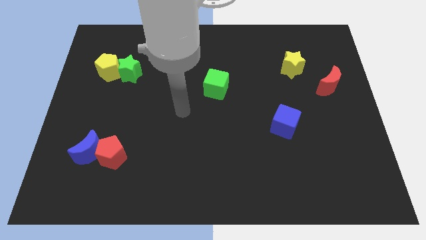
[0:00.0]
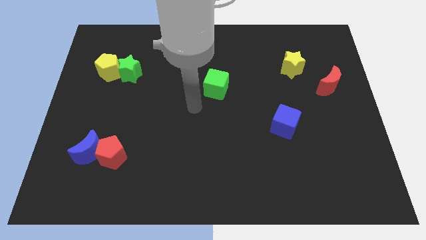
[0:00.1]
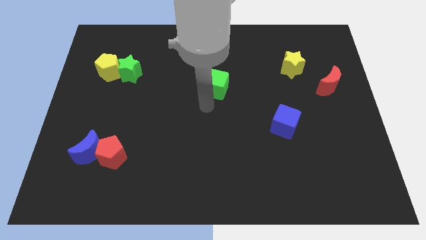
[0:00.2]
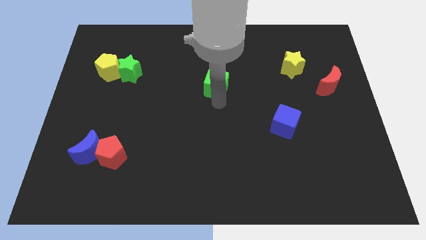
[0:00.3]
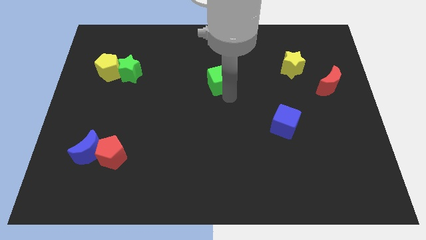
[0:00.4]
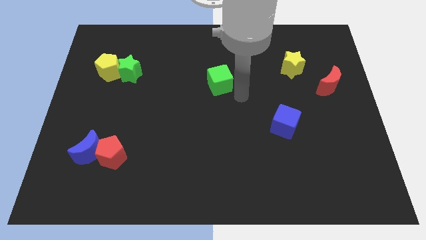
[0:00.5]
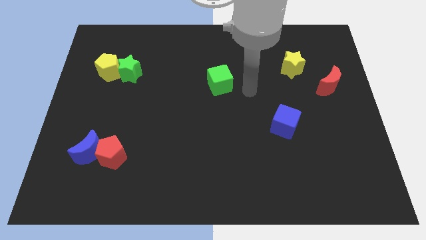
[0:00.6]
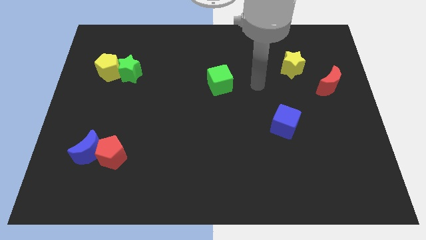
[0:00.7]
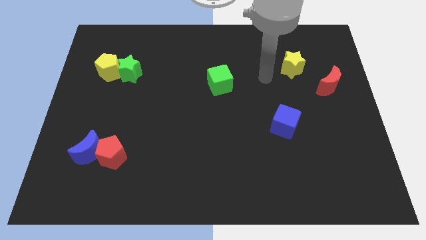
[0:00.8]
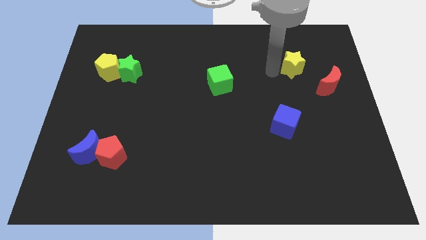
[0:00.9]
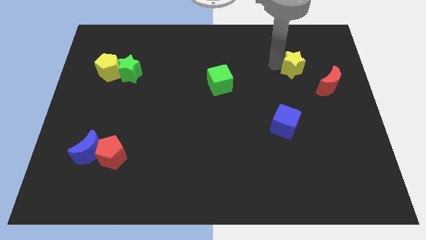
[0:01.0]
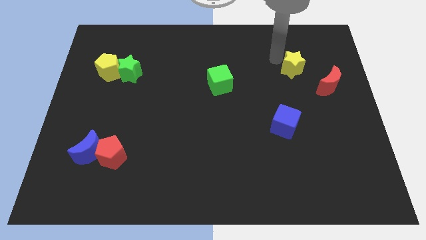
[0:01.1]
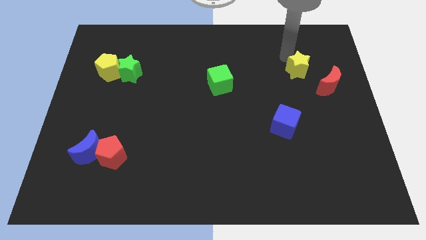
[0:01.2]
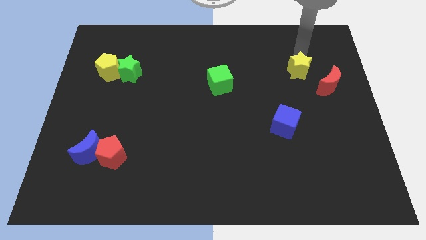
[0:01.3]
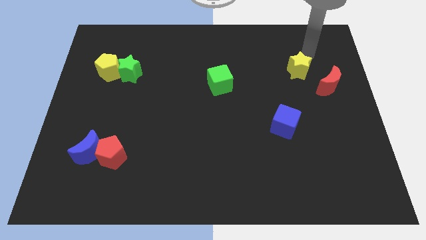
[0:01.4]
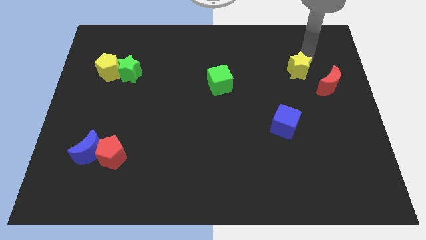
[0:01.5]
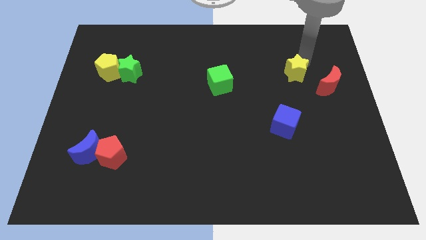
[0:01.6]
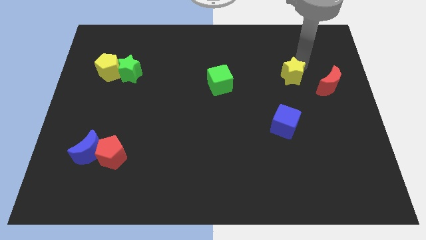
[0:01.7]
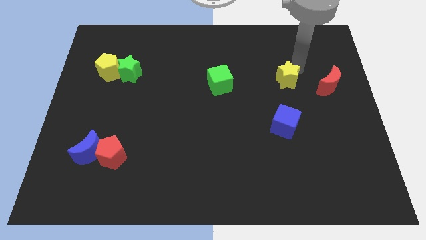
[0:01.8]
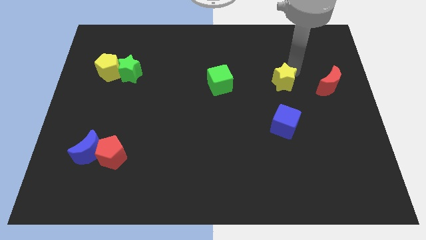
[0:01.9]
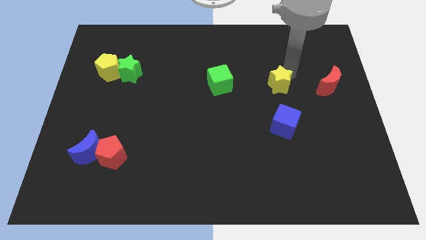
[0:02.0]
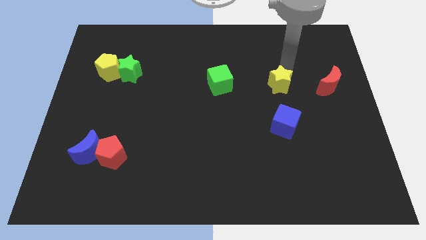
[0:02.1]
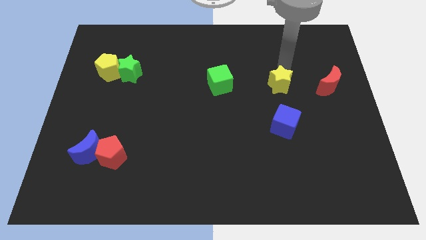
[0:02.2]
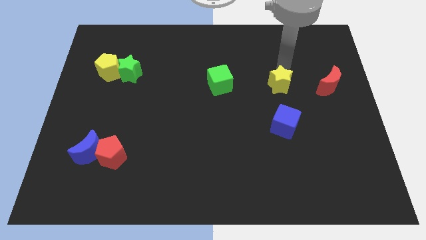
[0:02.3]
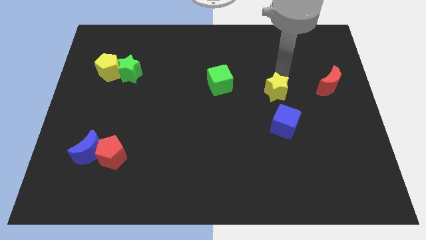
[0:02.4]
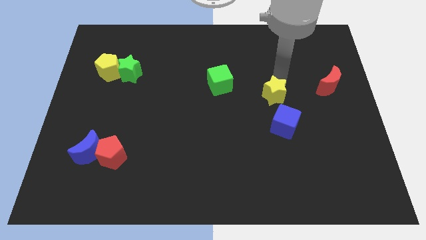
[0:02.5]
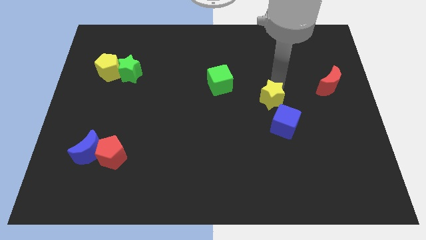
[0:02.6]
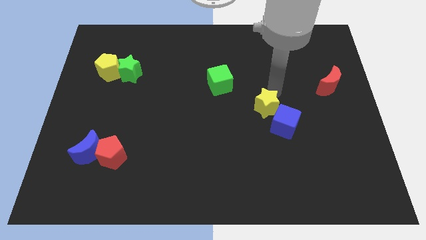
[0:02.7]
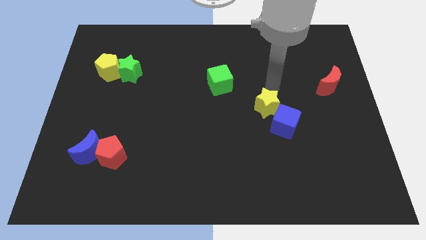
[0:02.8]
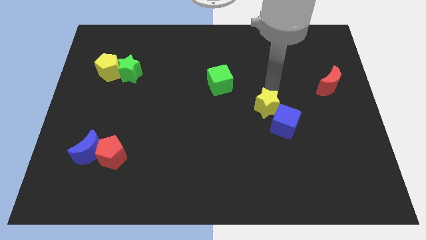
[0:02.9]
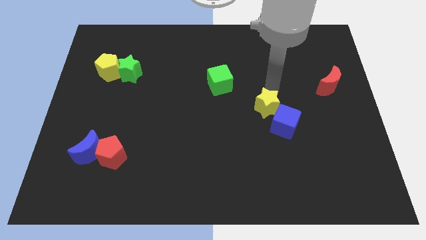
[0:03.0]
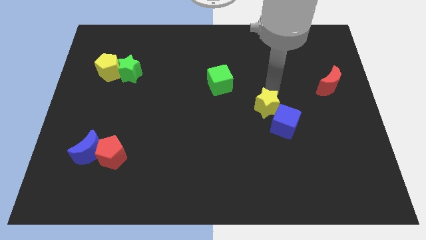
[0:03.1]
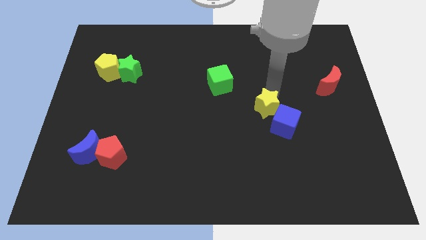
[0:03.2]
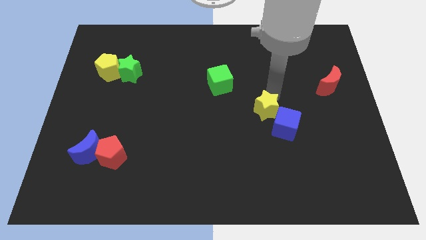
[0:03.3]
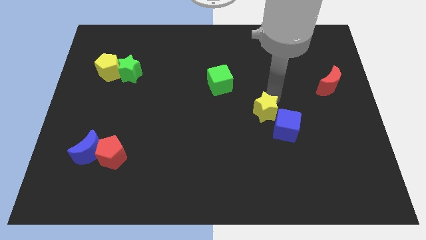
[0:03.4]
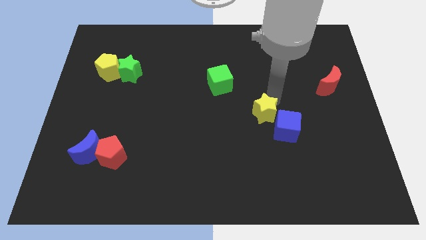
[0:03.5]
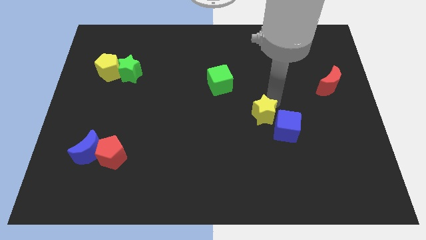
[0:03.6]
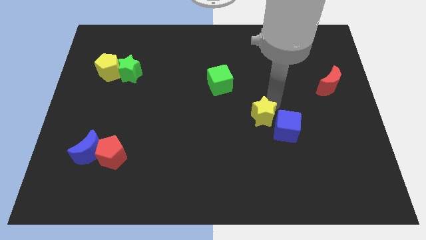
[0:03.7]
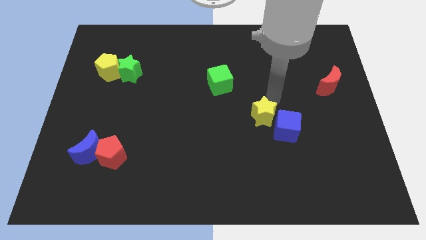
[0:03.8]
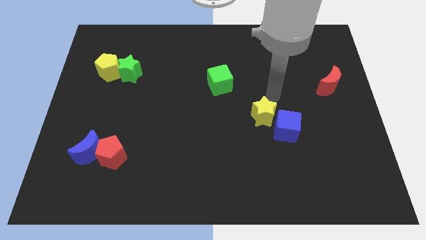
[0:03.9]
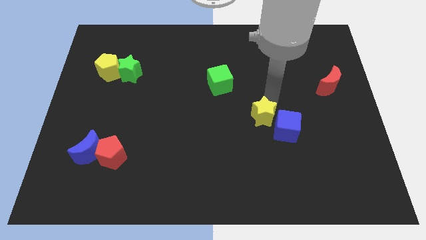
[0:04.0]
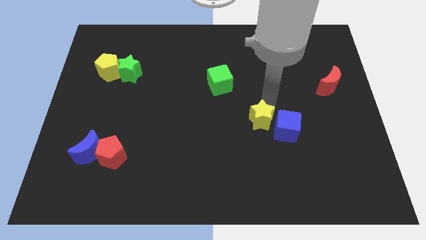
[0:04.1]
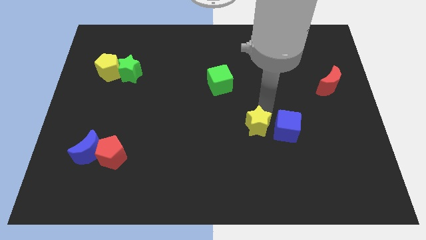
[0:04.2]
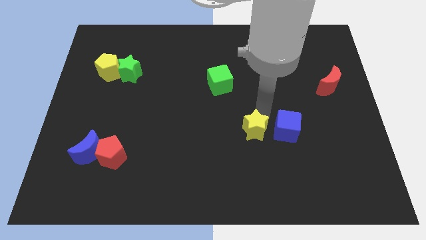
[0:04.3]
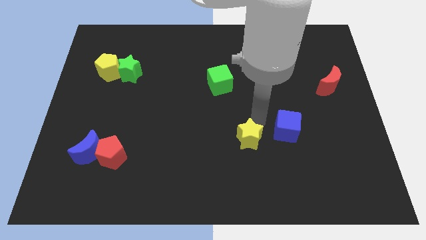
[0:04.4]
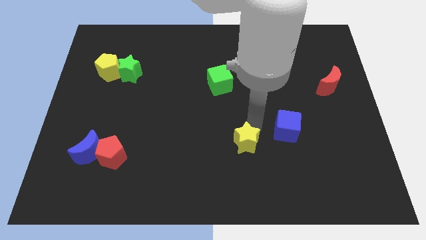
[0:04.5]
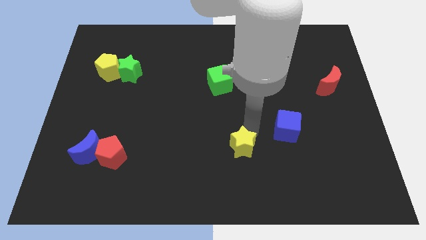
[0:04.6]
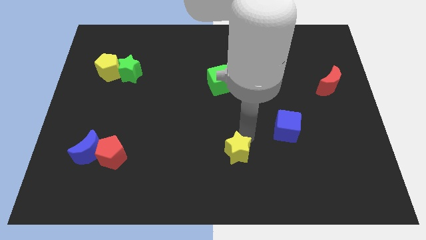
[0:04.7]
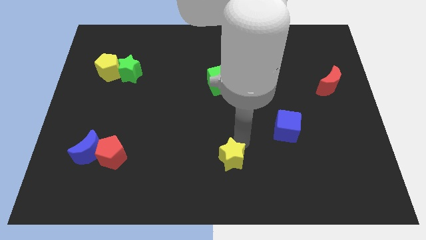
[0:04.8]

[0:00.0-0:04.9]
slide the yellow star to the bottom

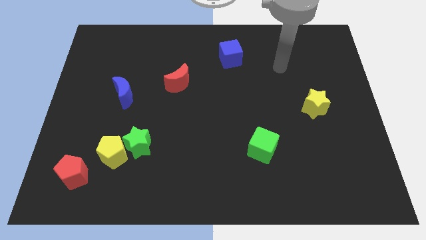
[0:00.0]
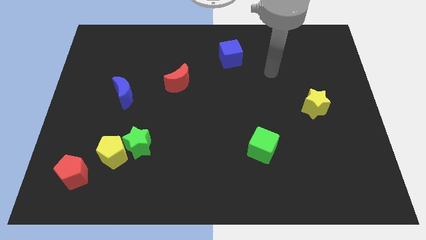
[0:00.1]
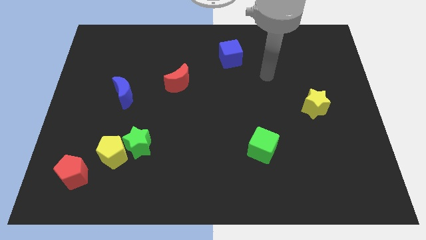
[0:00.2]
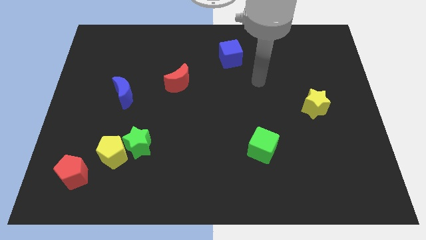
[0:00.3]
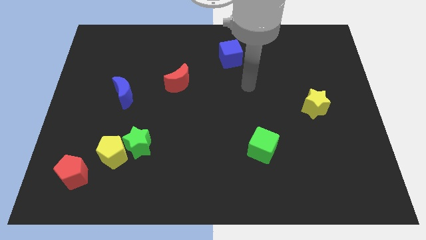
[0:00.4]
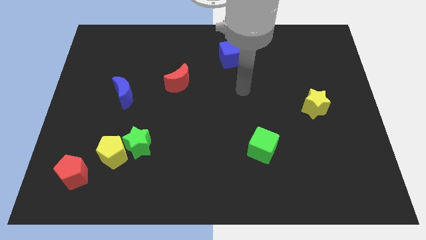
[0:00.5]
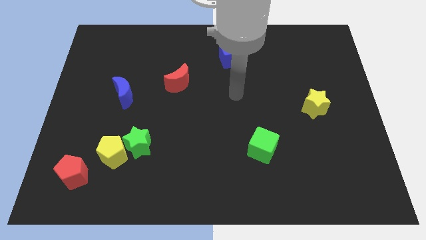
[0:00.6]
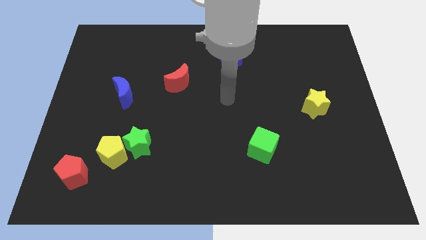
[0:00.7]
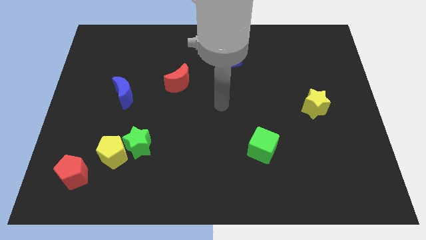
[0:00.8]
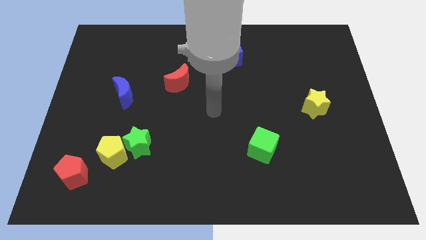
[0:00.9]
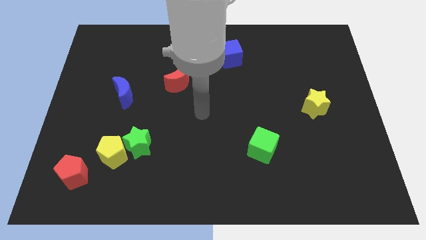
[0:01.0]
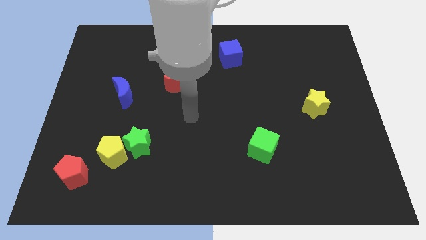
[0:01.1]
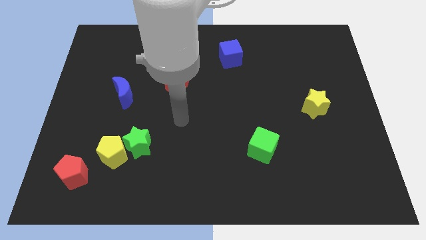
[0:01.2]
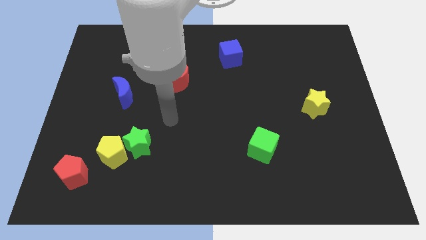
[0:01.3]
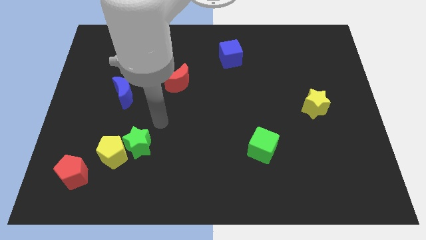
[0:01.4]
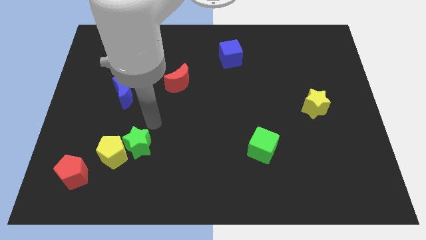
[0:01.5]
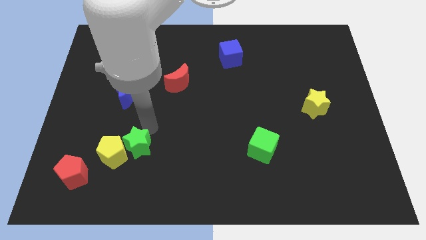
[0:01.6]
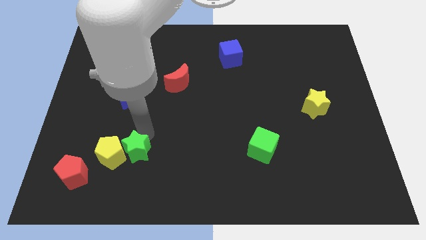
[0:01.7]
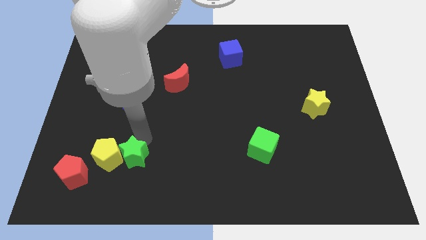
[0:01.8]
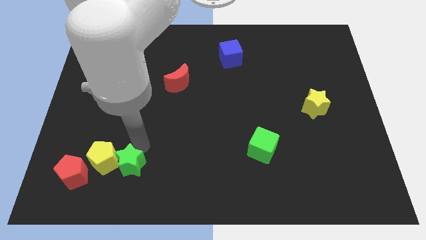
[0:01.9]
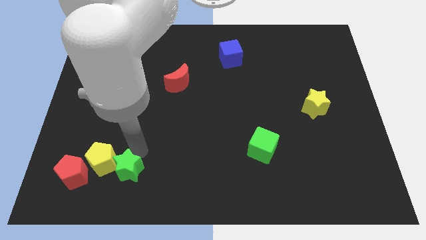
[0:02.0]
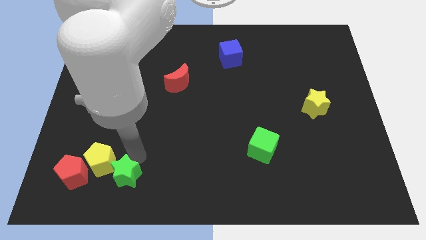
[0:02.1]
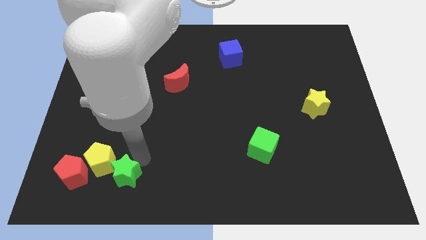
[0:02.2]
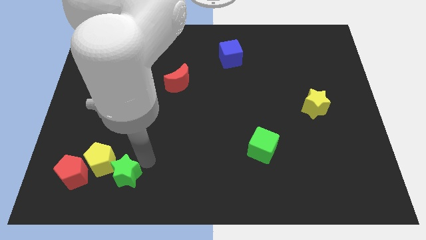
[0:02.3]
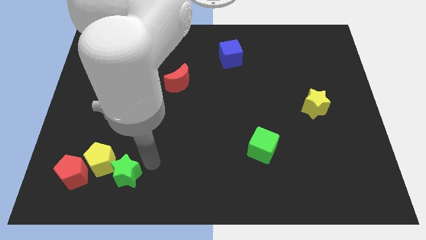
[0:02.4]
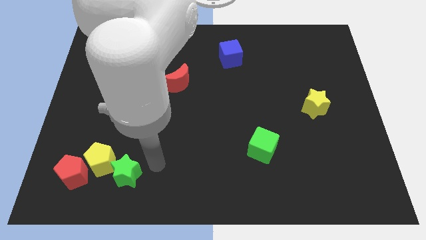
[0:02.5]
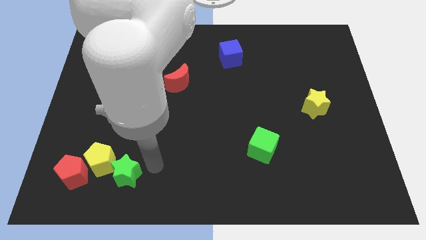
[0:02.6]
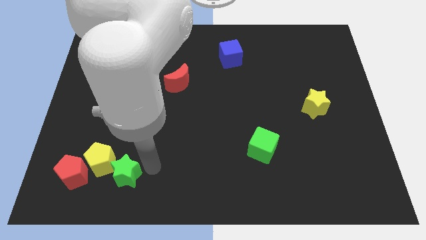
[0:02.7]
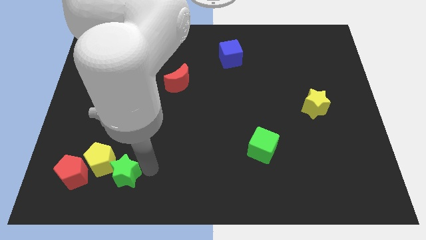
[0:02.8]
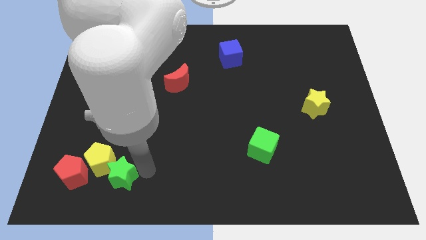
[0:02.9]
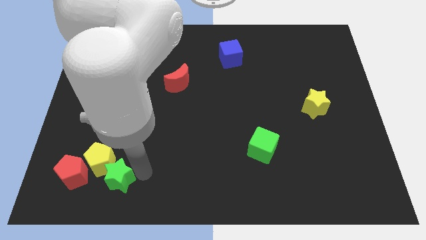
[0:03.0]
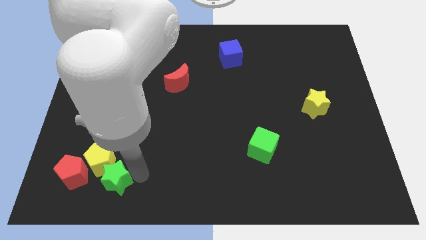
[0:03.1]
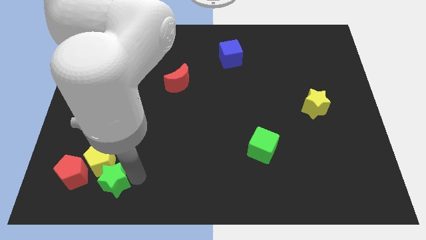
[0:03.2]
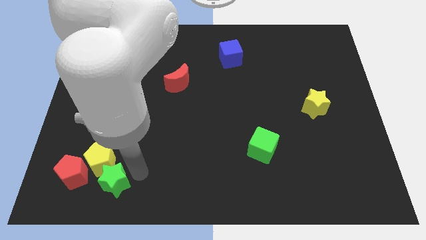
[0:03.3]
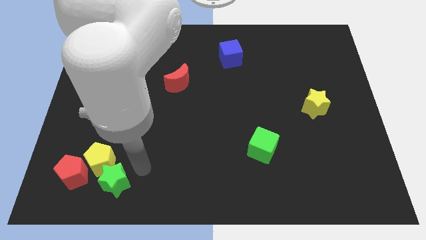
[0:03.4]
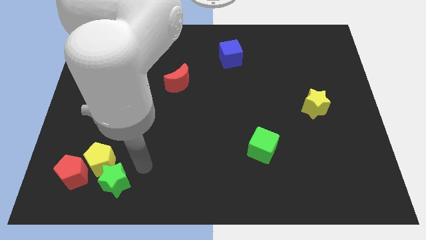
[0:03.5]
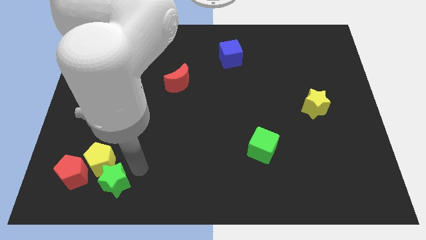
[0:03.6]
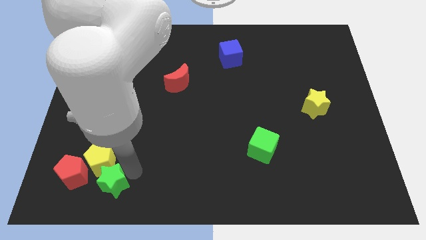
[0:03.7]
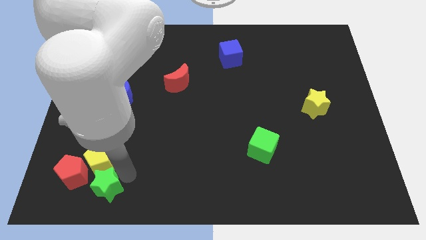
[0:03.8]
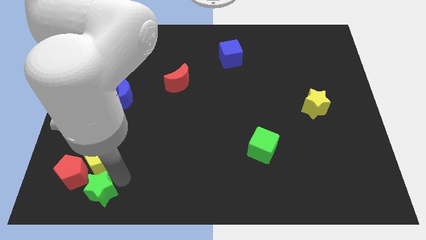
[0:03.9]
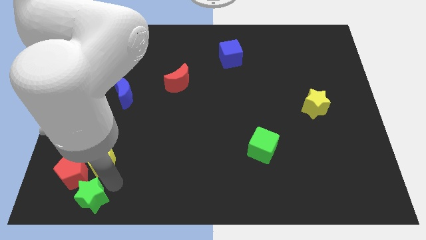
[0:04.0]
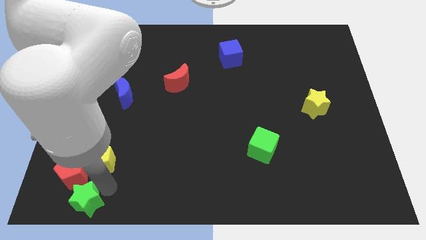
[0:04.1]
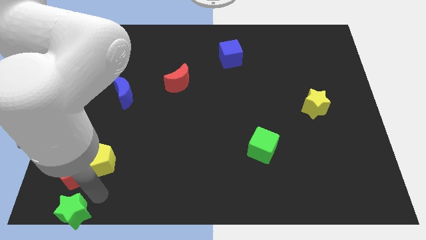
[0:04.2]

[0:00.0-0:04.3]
move the green star to the lower left corner
